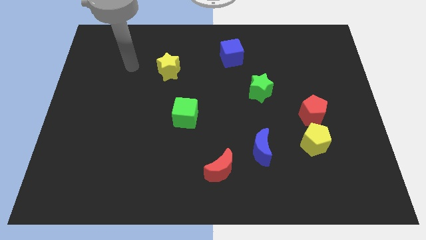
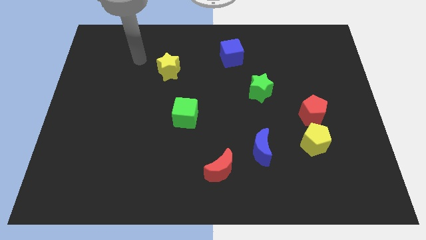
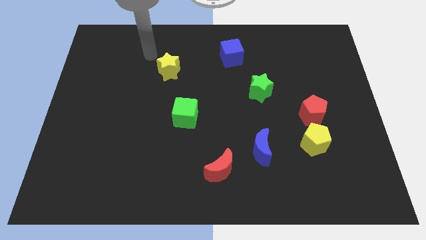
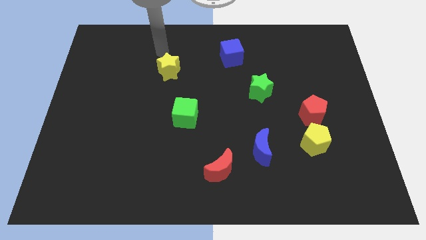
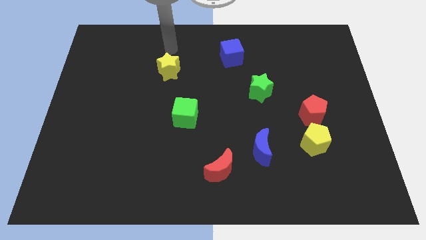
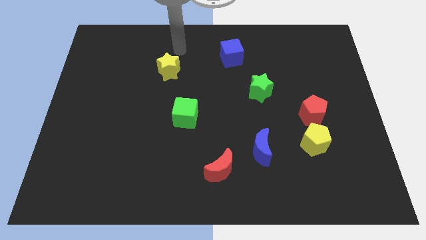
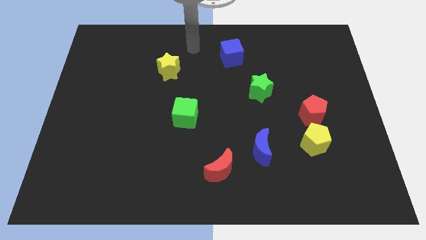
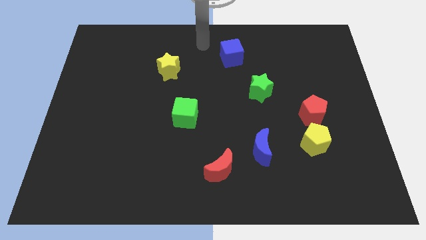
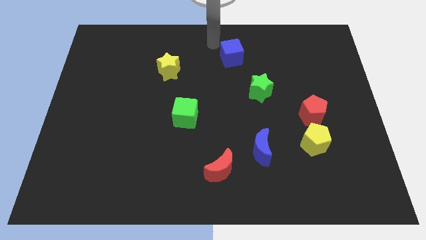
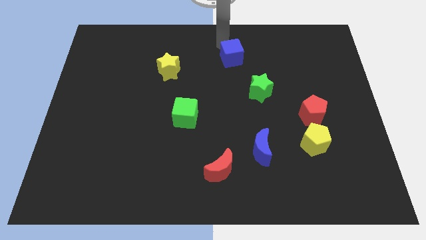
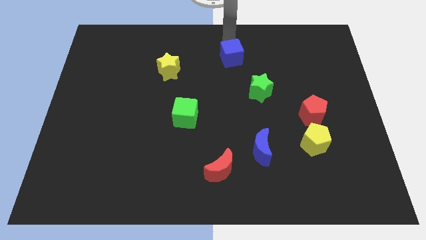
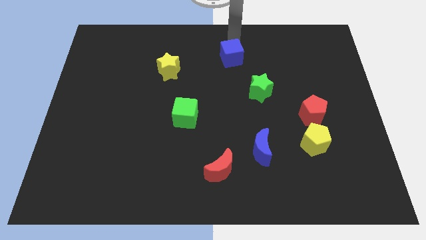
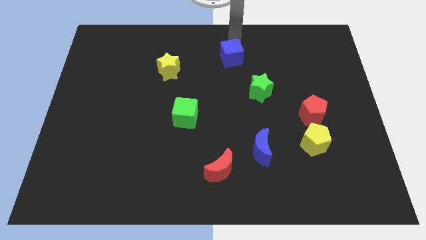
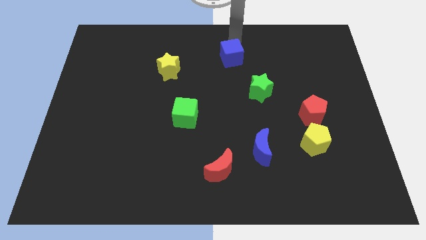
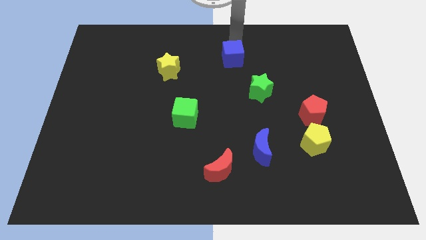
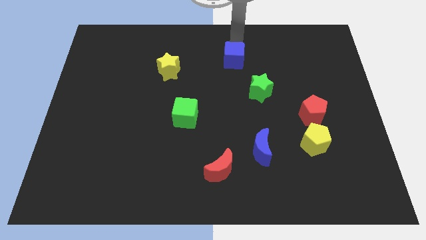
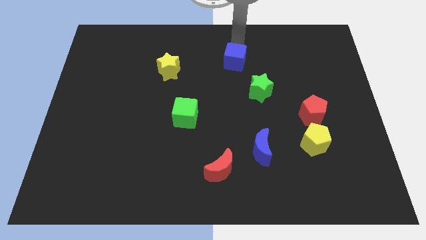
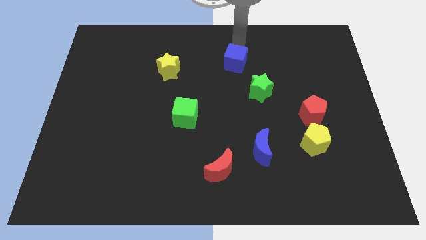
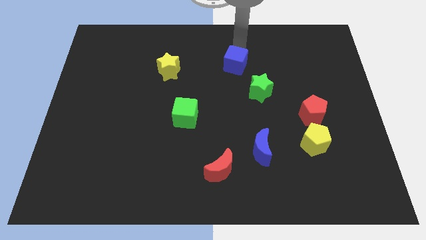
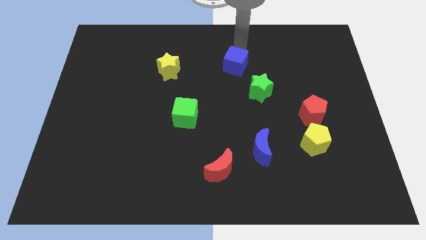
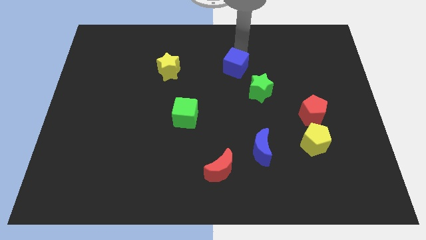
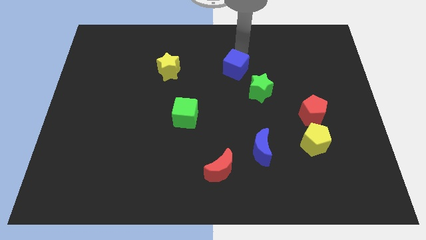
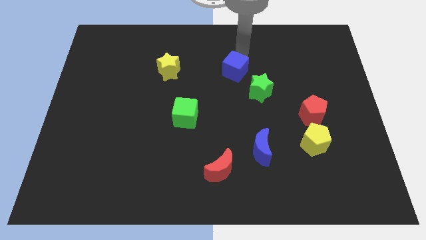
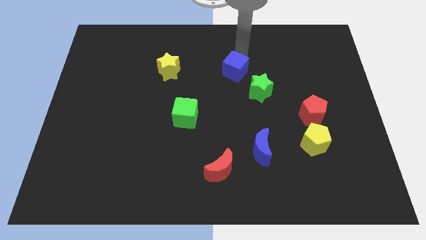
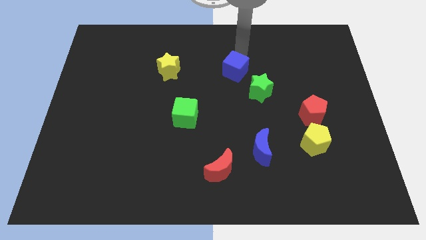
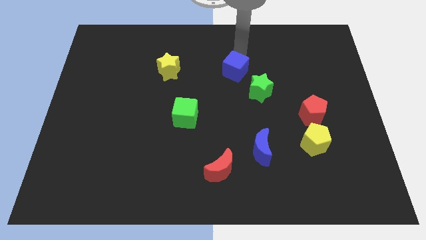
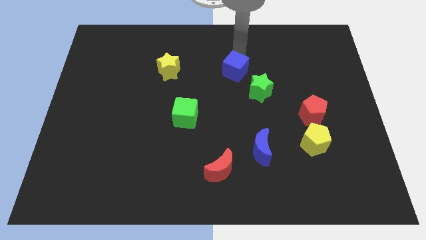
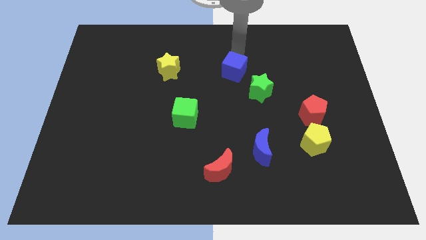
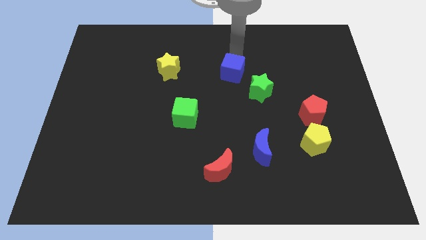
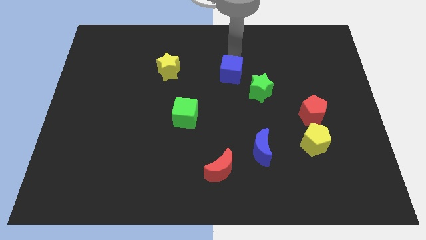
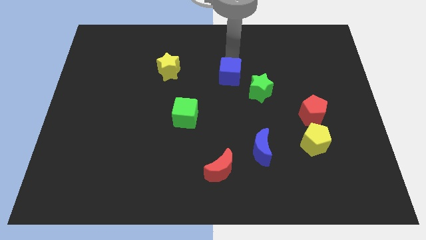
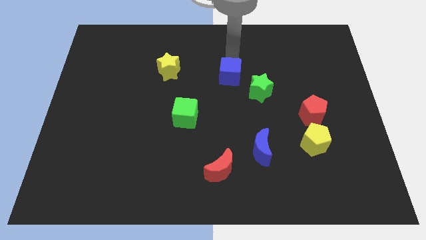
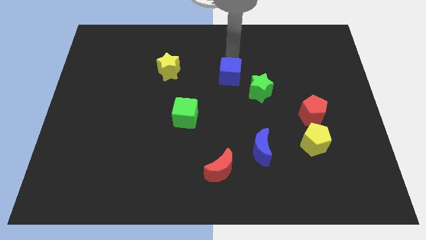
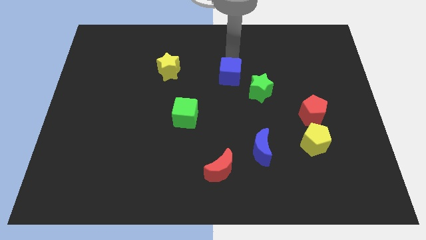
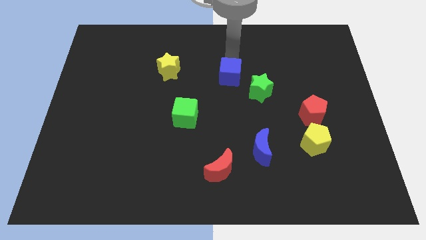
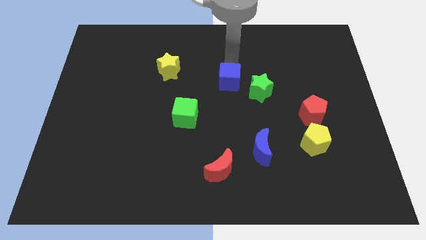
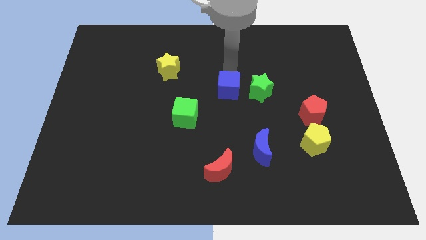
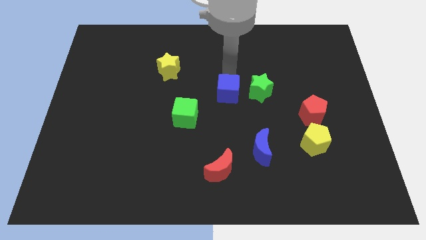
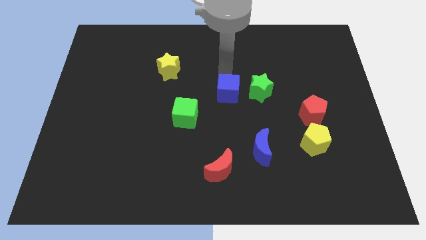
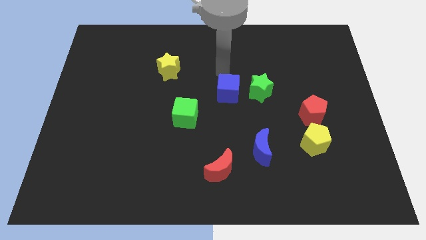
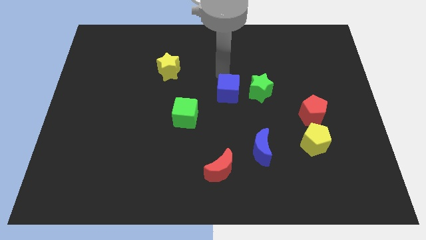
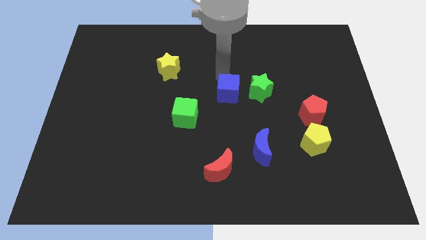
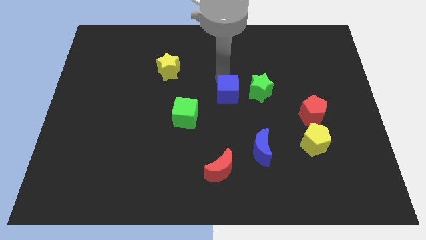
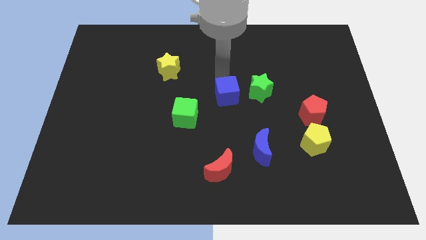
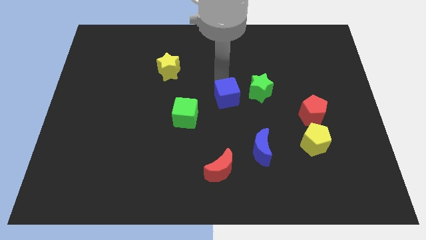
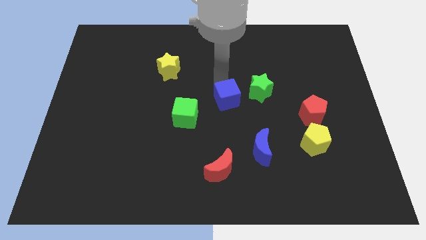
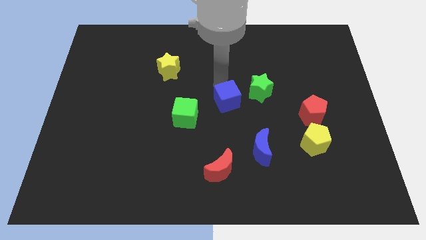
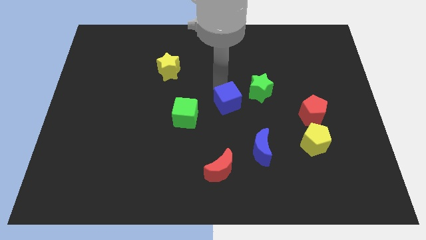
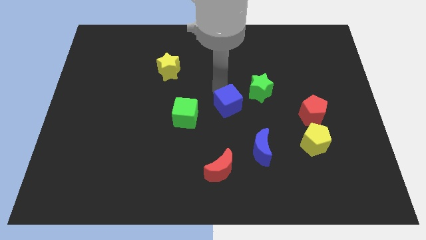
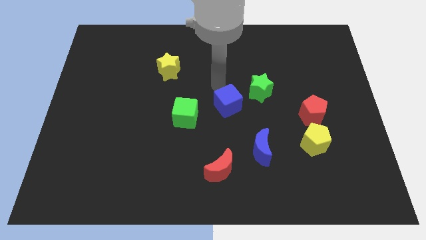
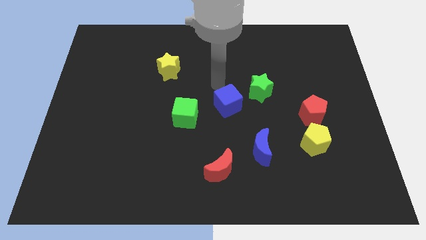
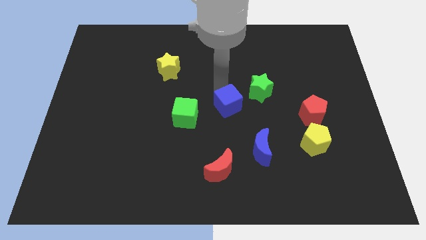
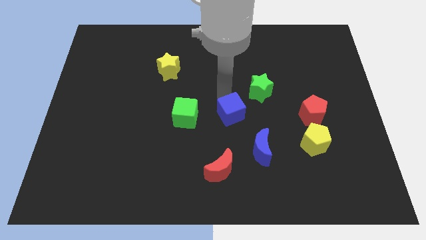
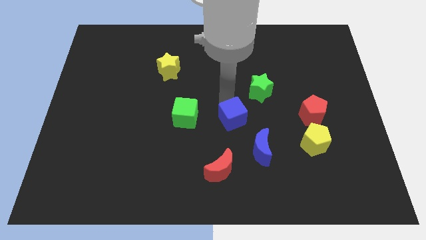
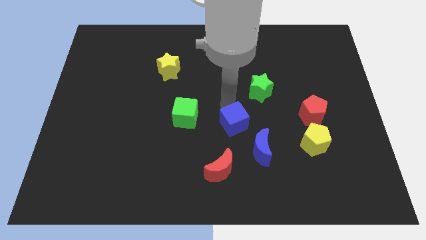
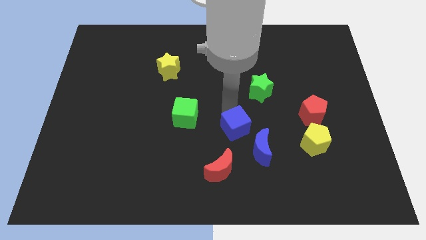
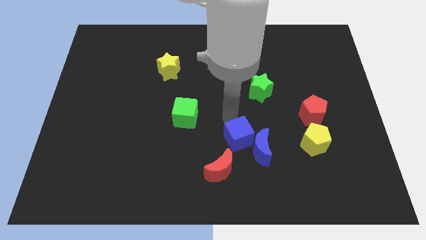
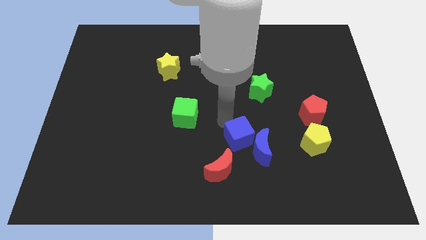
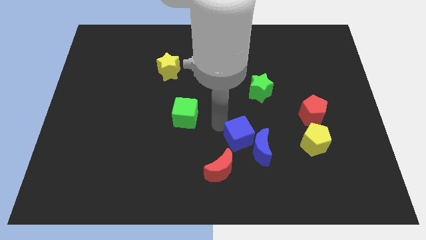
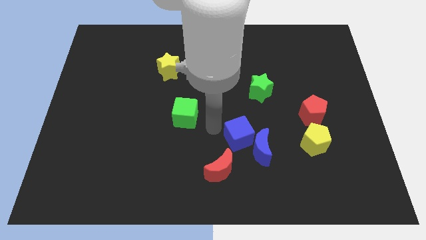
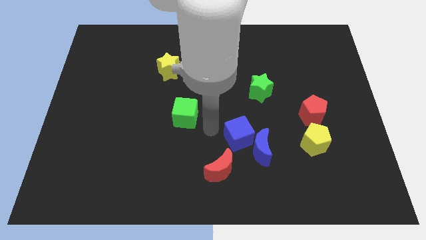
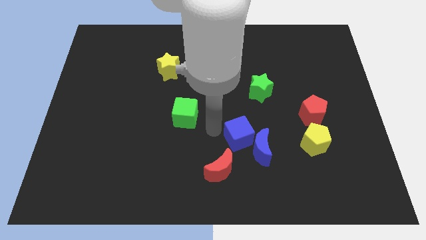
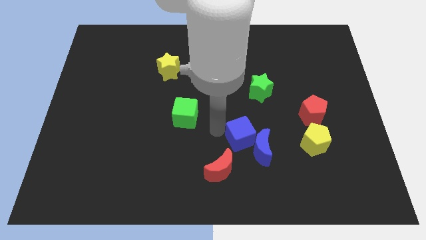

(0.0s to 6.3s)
move the blue cube to the left of the yellow pentagon
